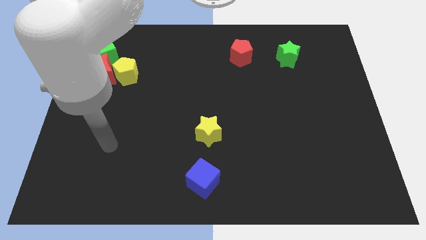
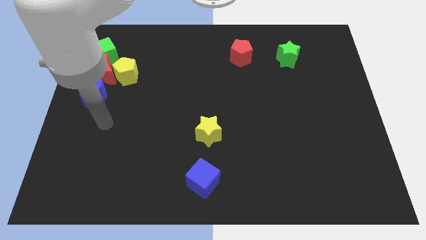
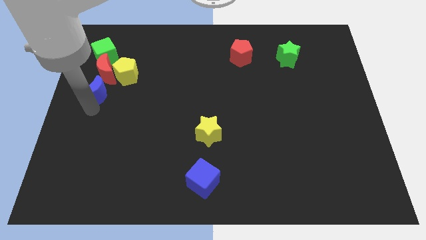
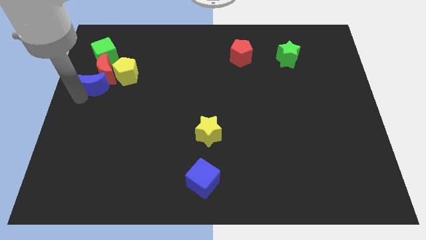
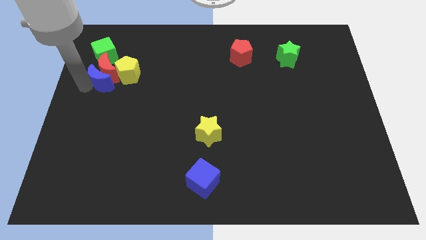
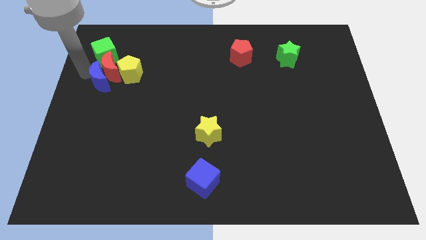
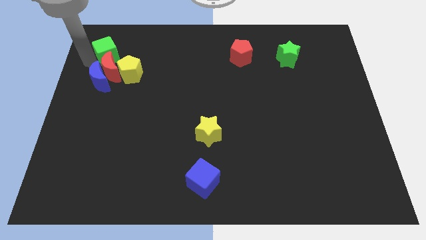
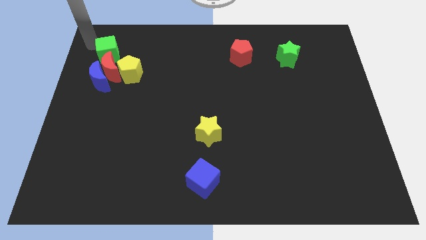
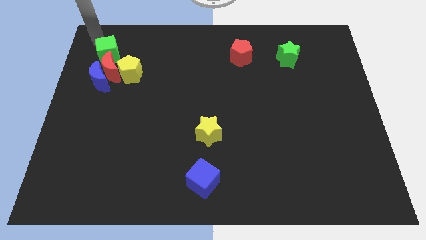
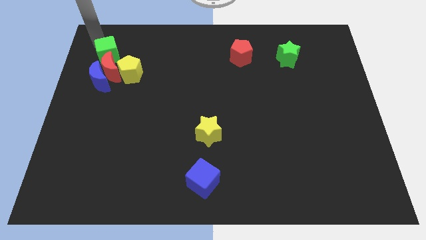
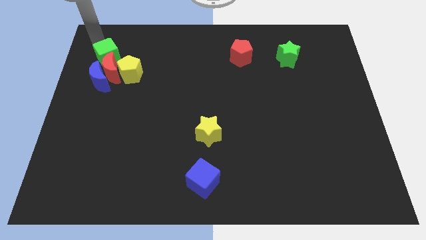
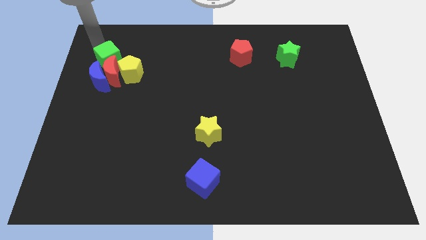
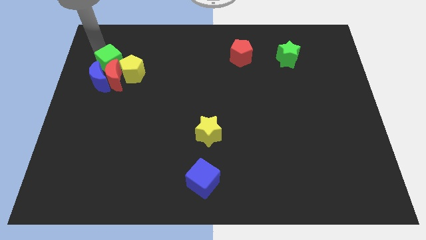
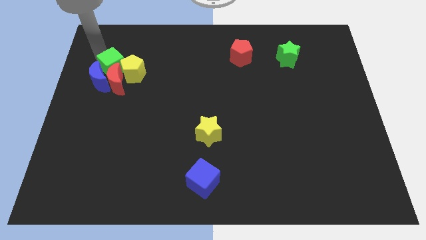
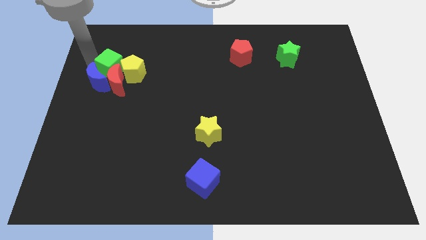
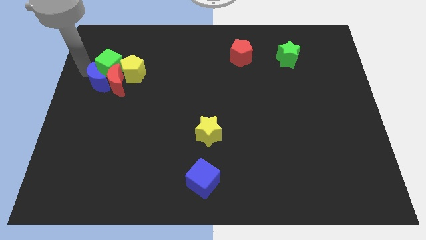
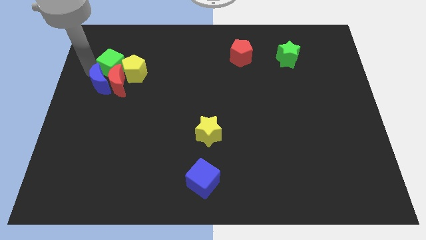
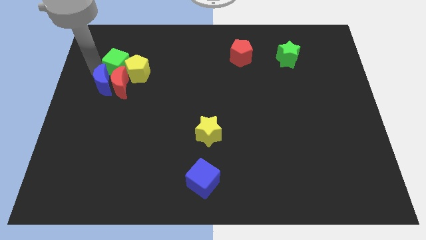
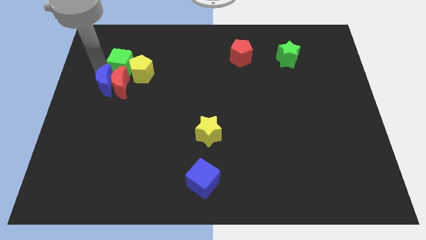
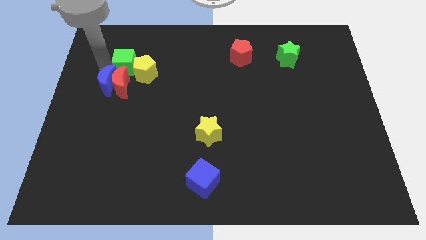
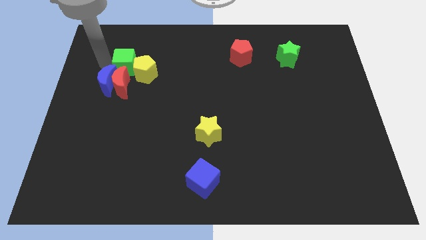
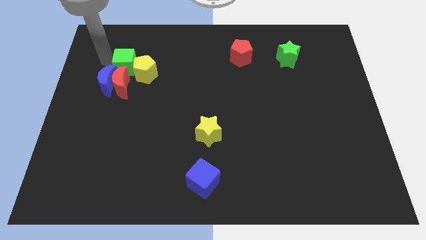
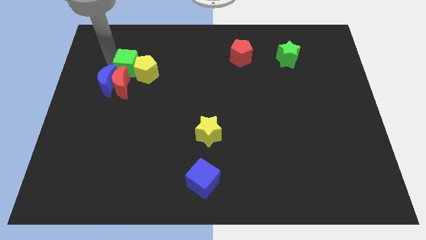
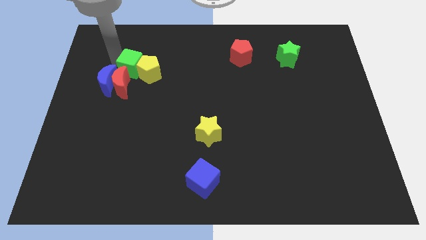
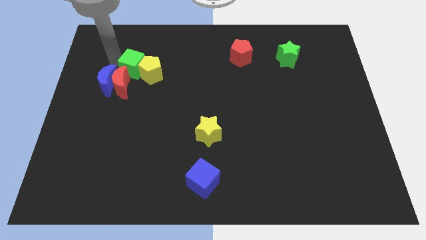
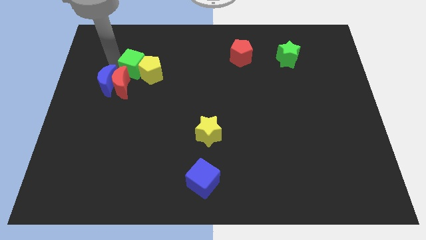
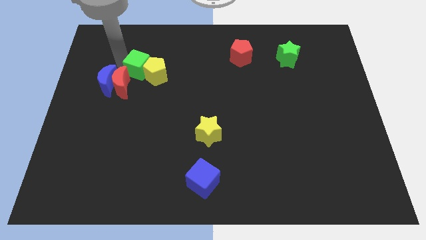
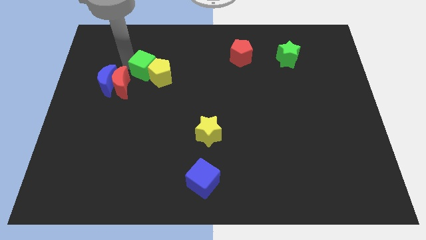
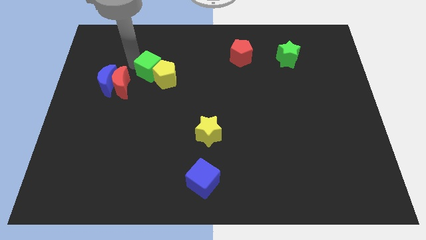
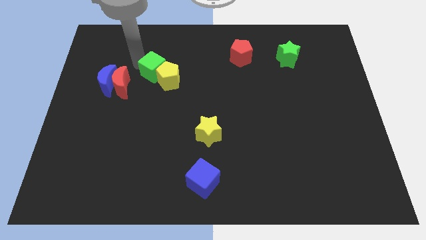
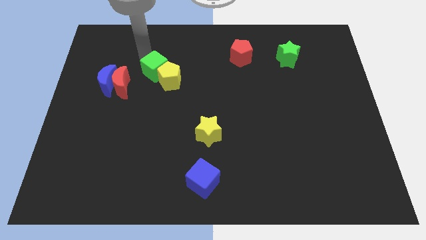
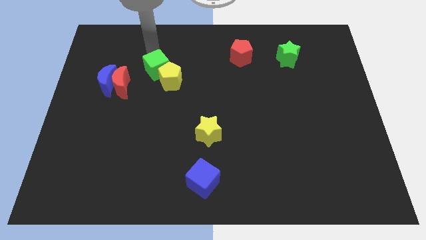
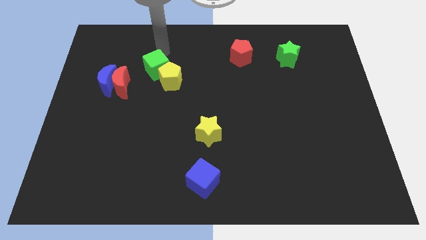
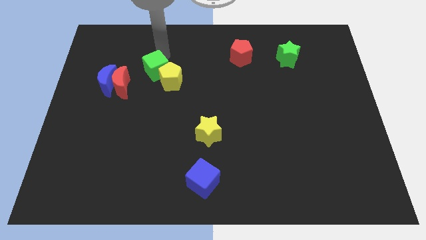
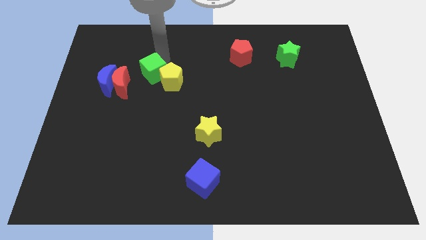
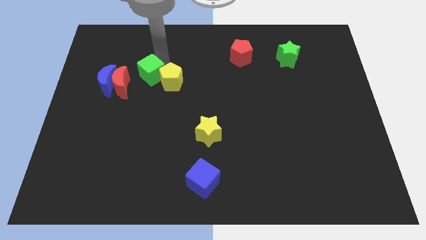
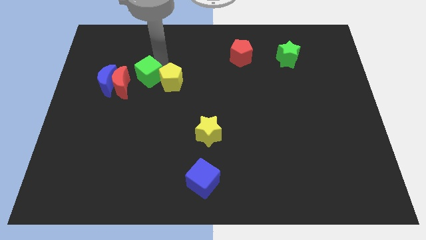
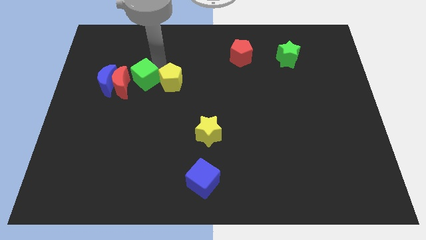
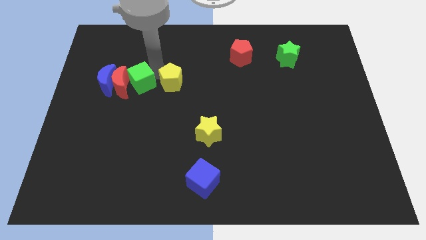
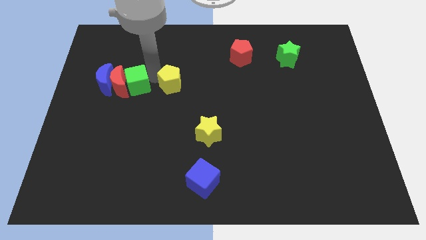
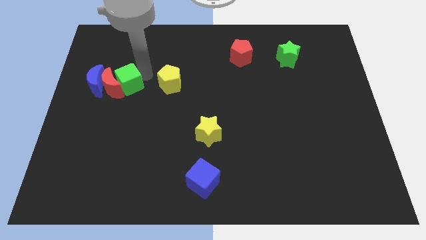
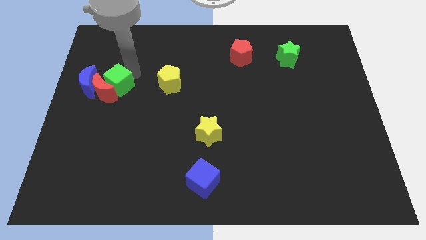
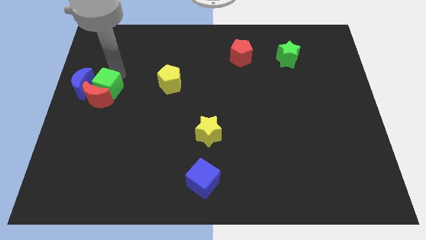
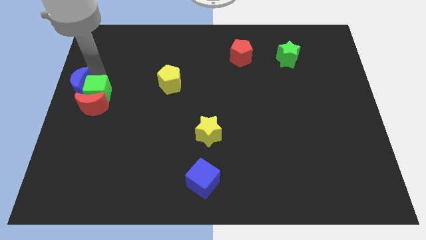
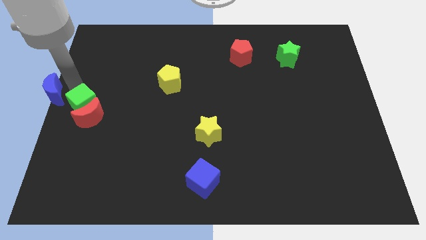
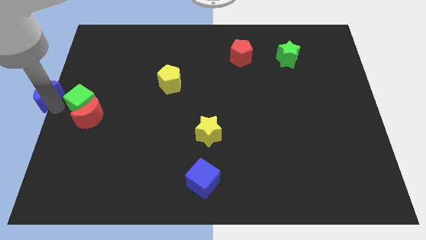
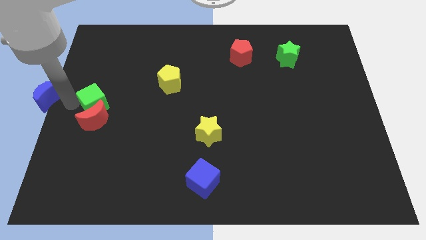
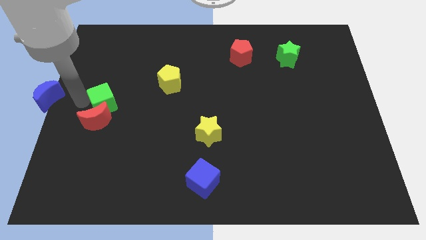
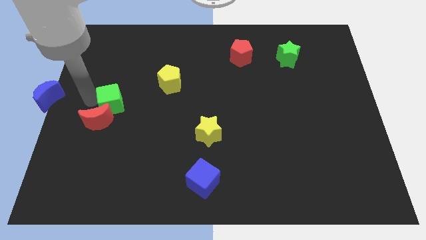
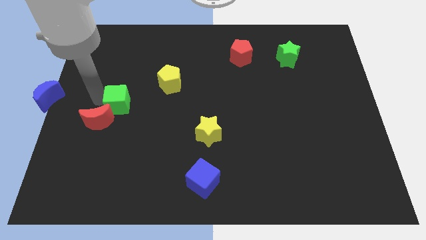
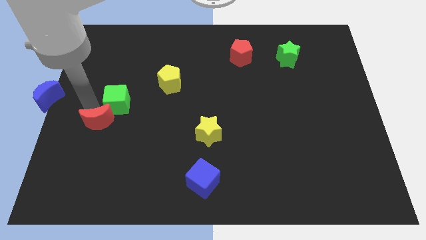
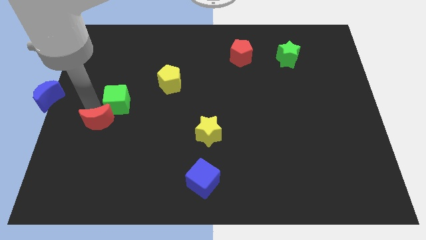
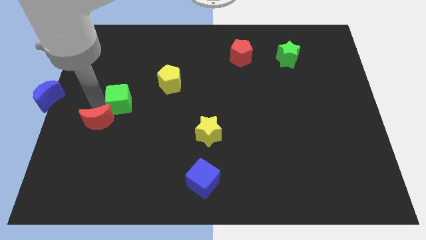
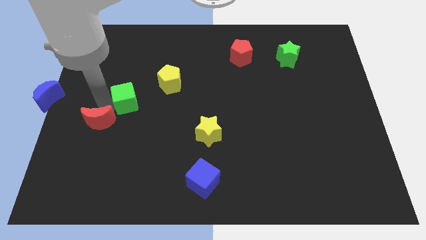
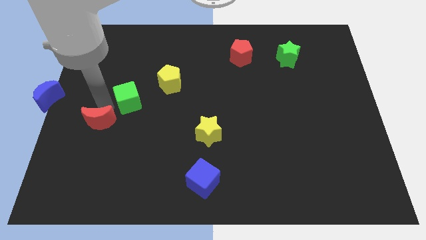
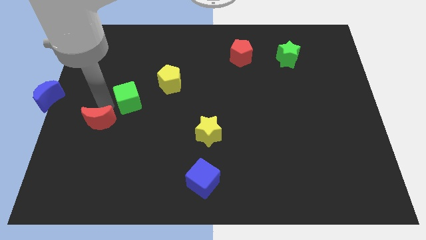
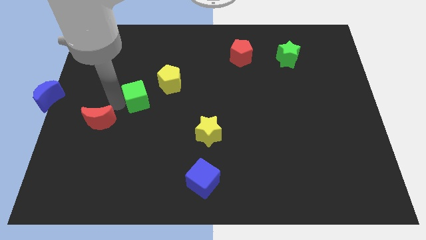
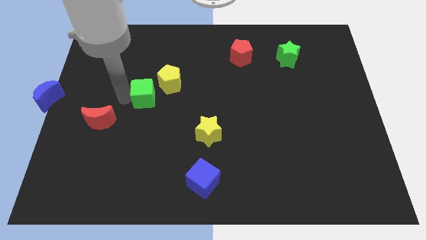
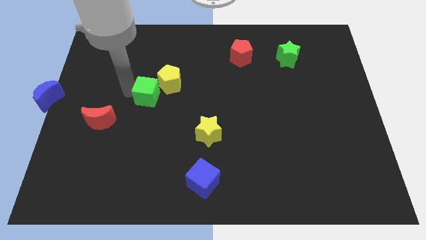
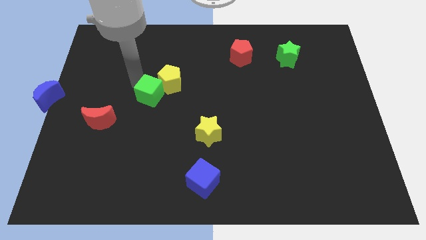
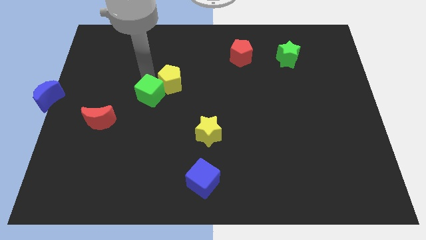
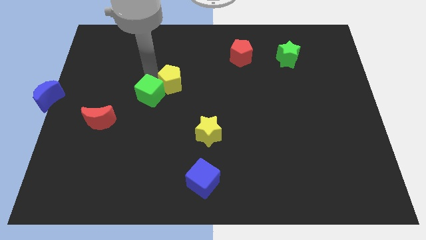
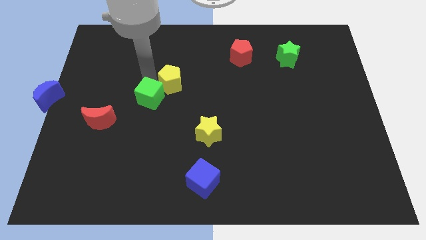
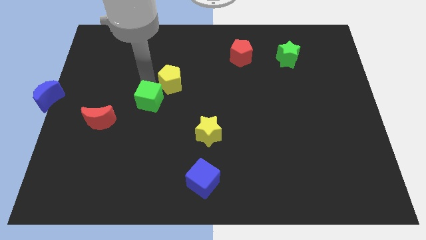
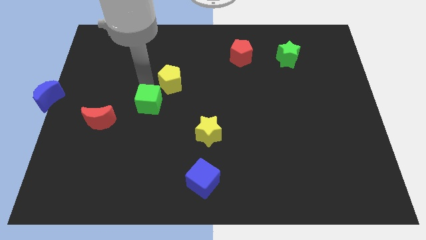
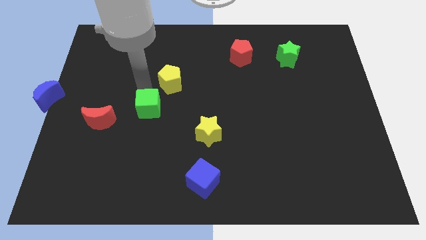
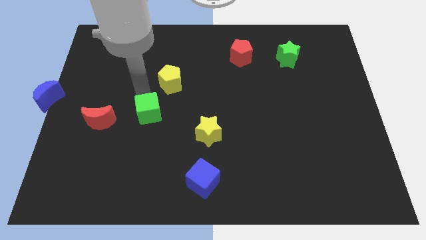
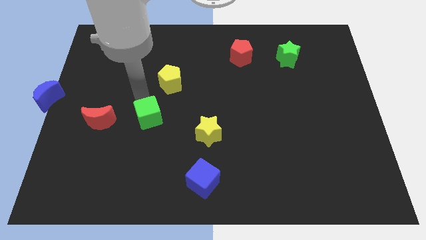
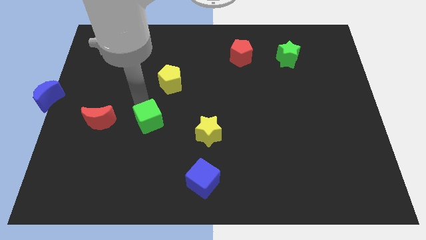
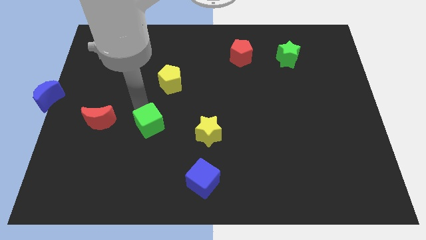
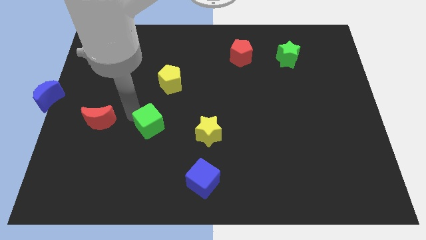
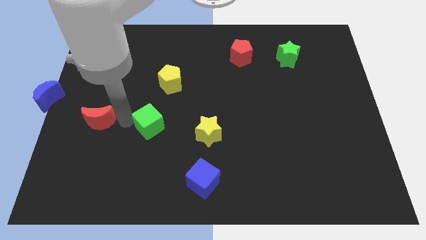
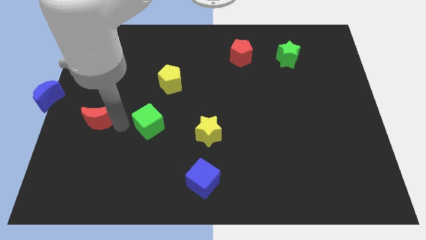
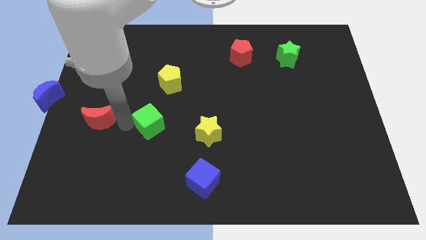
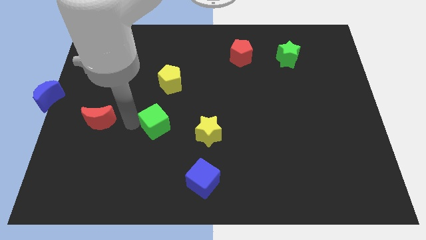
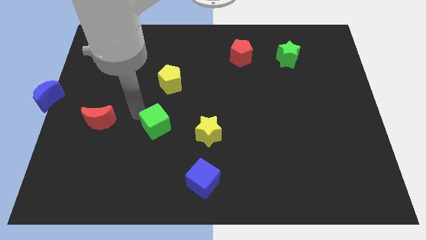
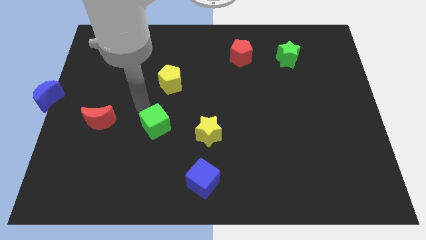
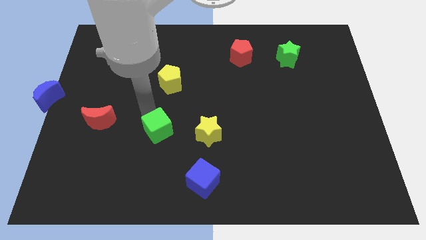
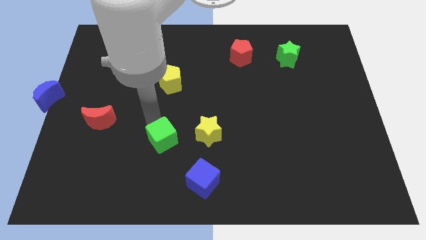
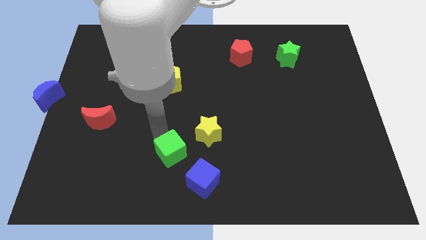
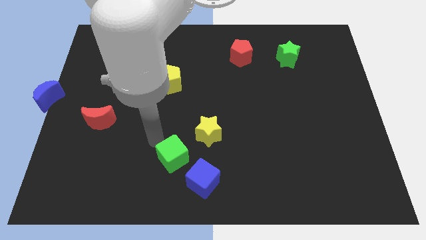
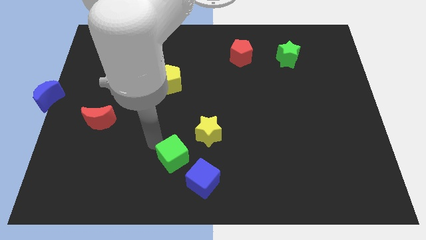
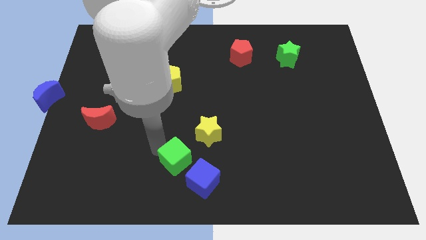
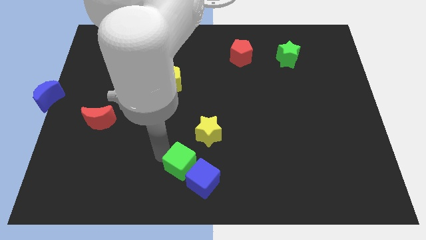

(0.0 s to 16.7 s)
push the green cube next to the blue cube
